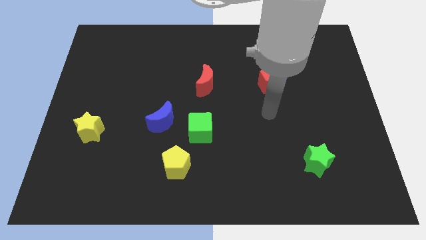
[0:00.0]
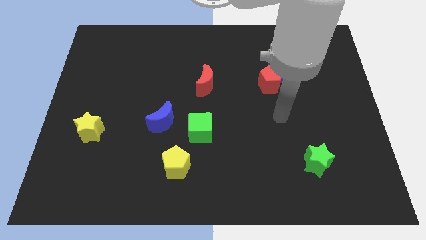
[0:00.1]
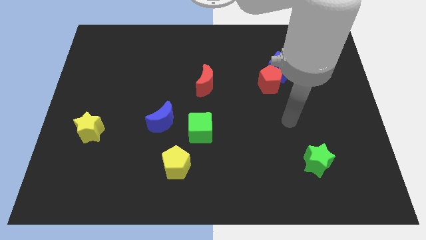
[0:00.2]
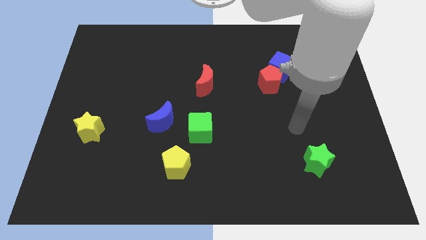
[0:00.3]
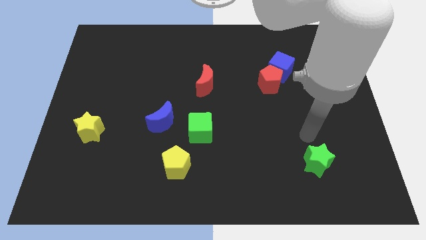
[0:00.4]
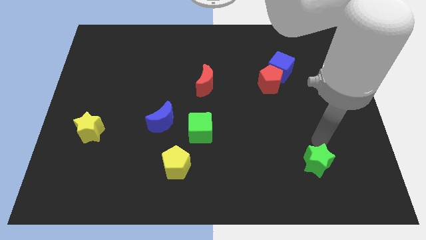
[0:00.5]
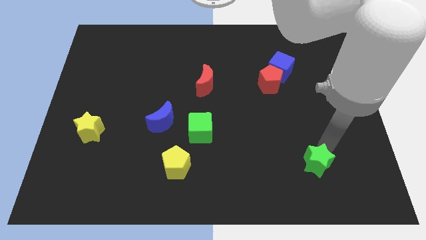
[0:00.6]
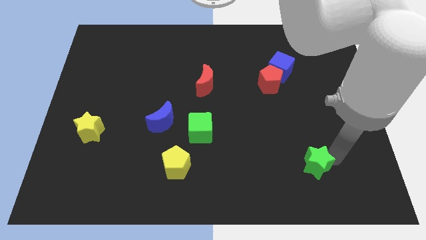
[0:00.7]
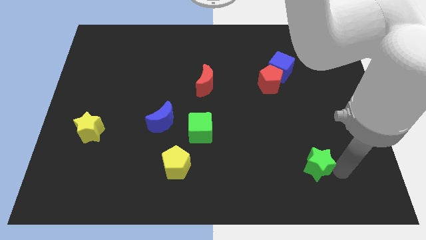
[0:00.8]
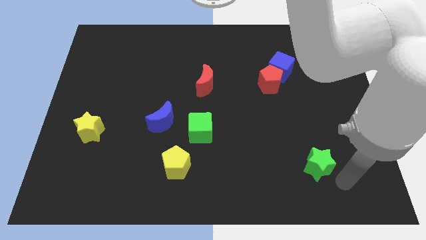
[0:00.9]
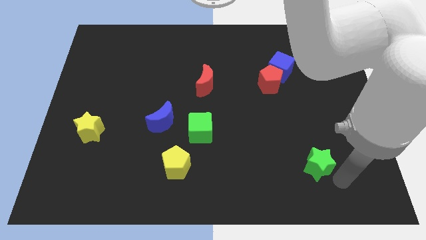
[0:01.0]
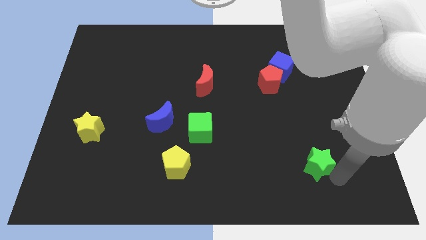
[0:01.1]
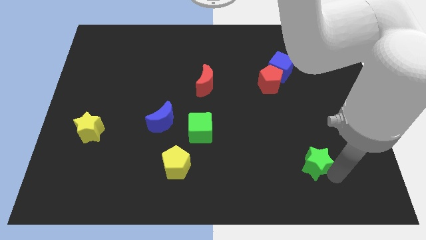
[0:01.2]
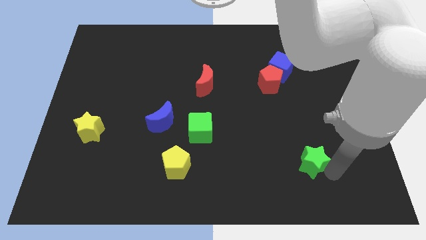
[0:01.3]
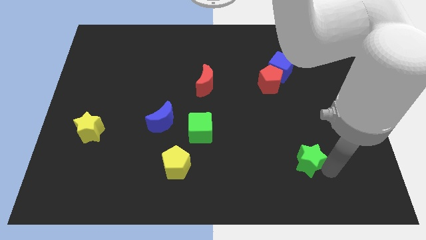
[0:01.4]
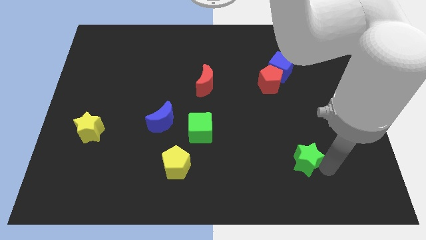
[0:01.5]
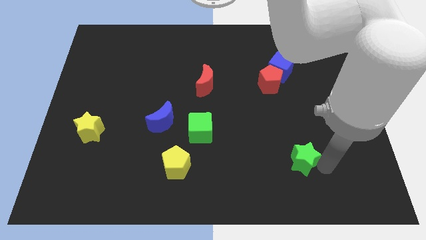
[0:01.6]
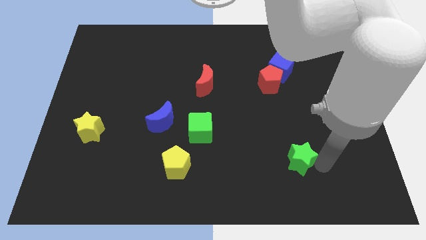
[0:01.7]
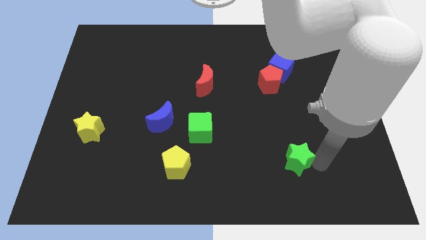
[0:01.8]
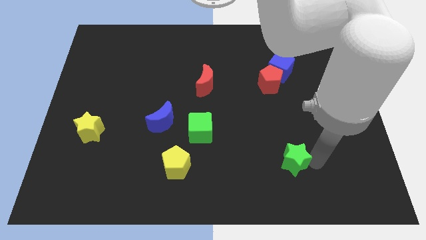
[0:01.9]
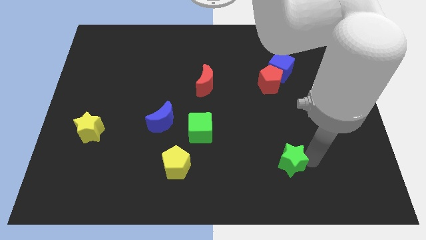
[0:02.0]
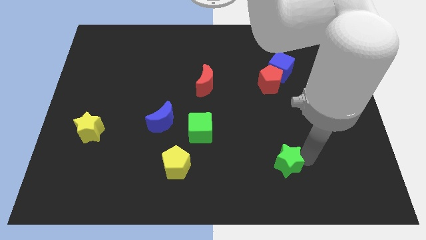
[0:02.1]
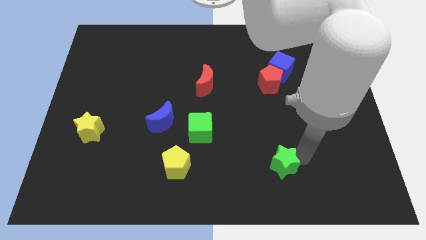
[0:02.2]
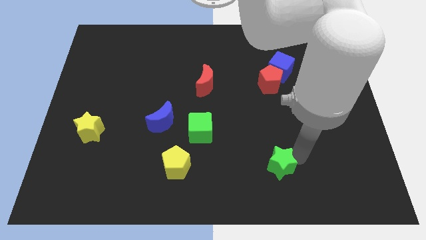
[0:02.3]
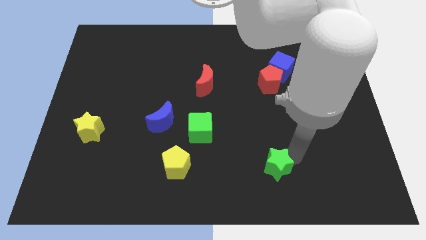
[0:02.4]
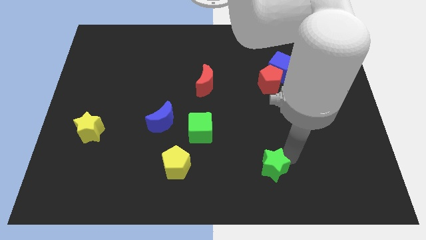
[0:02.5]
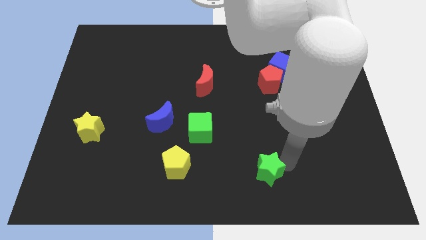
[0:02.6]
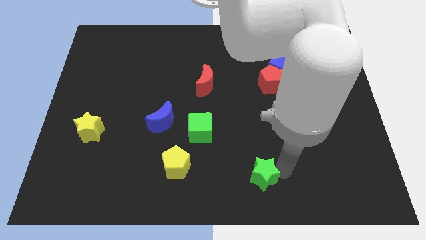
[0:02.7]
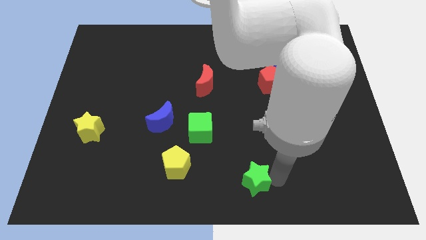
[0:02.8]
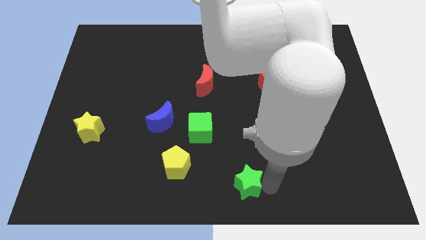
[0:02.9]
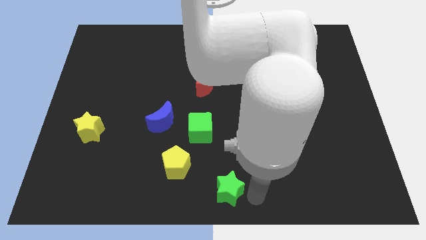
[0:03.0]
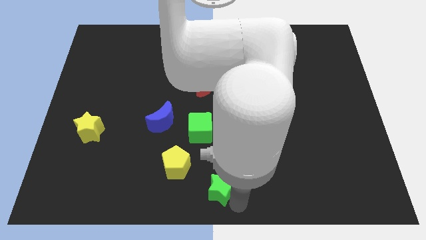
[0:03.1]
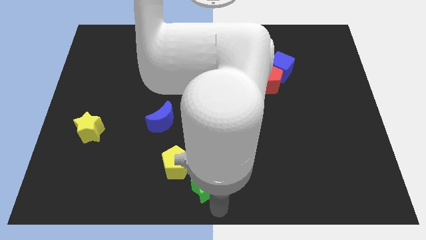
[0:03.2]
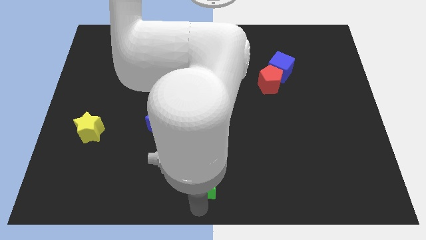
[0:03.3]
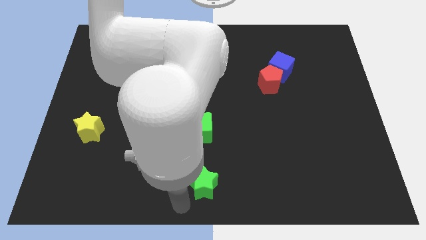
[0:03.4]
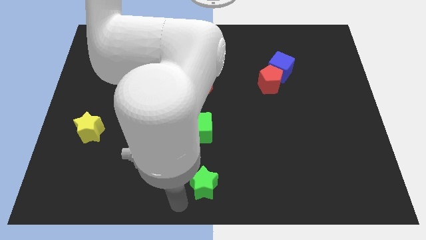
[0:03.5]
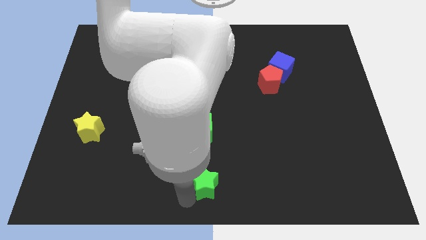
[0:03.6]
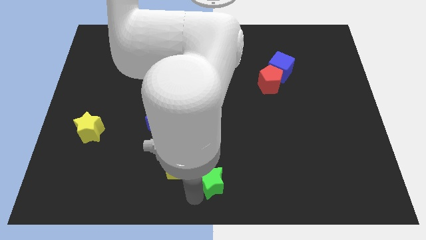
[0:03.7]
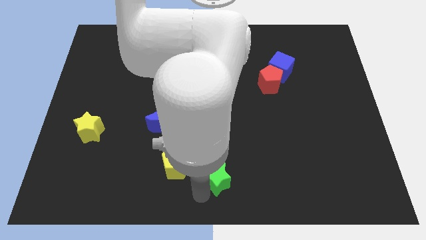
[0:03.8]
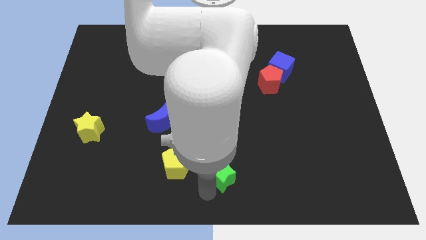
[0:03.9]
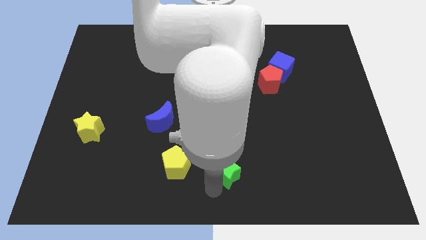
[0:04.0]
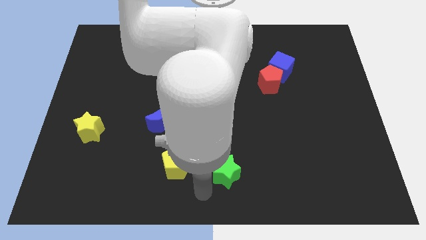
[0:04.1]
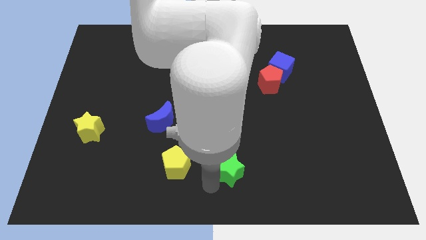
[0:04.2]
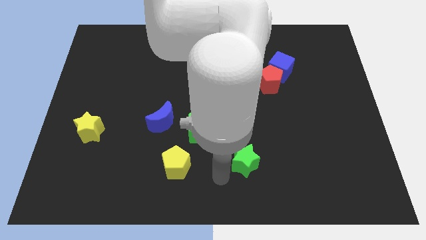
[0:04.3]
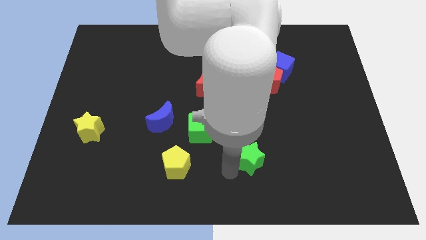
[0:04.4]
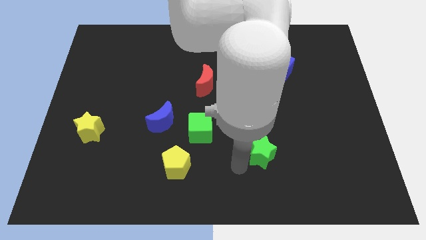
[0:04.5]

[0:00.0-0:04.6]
push the green star up and to the left diagonally a little

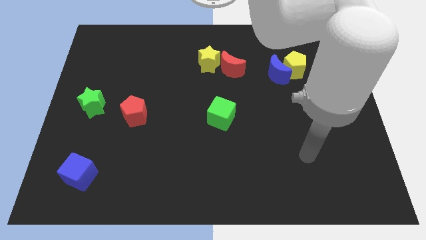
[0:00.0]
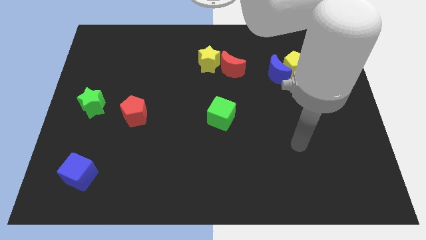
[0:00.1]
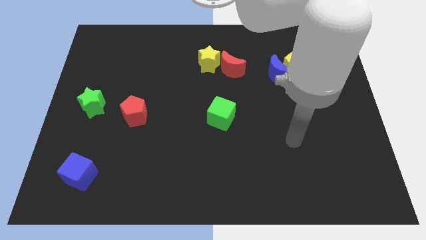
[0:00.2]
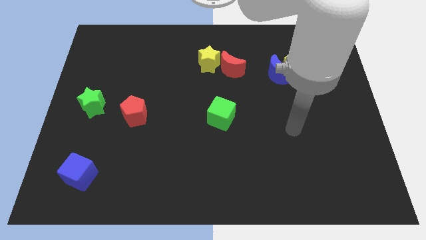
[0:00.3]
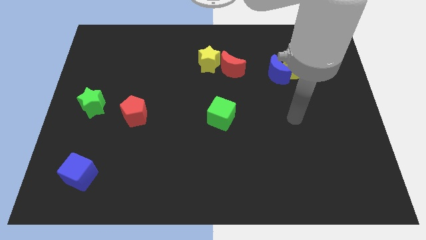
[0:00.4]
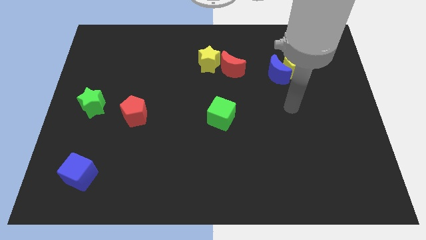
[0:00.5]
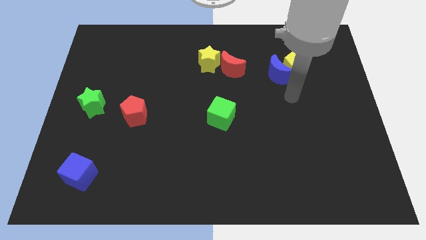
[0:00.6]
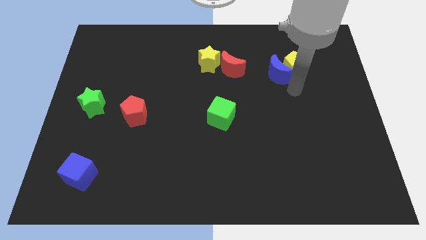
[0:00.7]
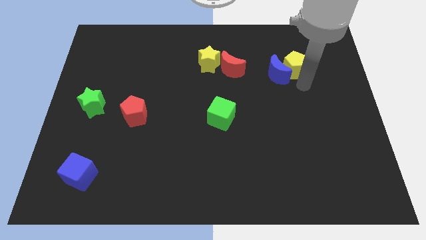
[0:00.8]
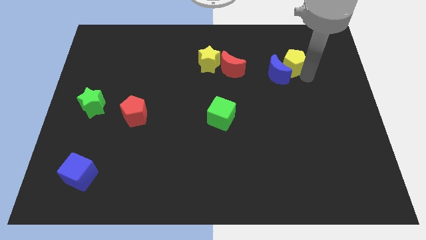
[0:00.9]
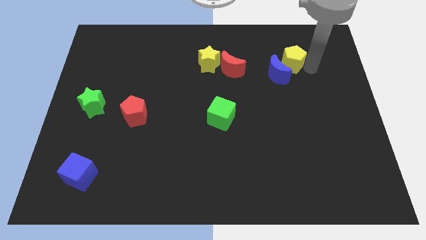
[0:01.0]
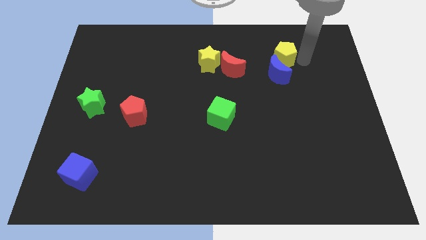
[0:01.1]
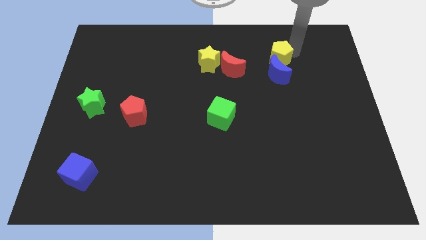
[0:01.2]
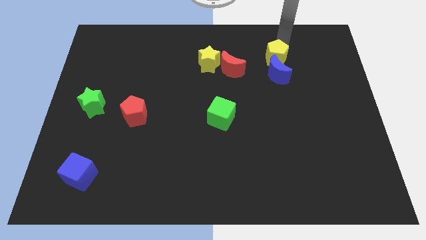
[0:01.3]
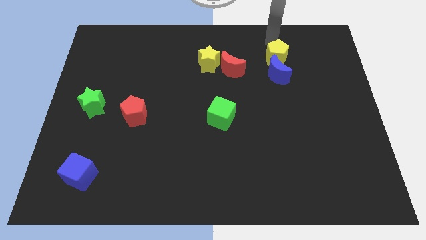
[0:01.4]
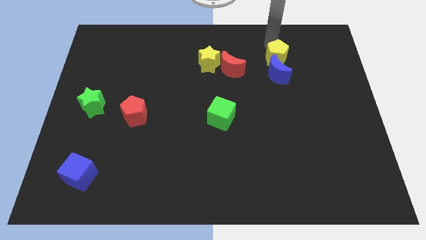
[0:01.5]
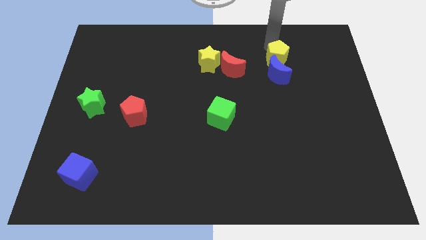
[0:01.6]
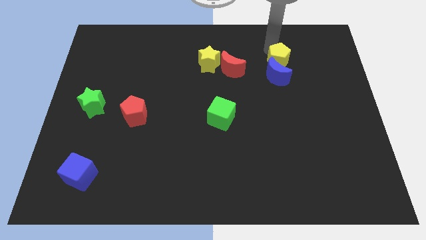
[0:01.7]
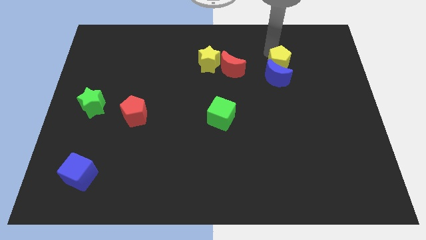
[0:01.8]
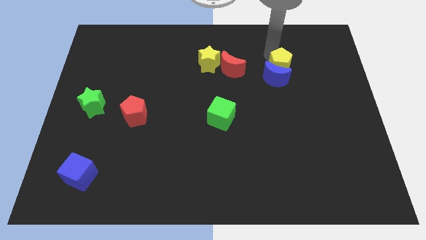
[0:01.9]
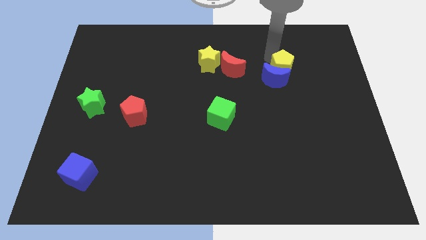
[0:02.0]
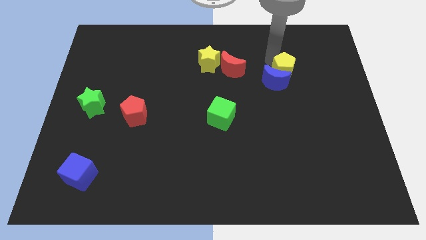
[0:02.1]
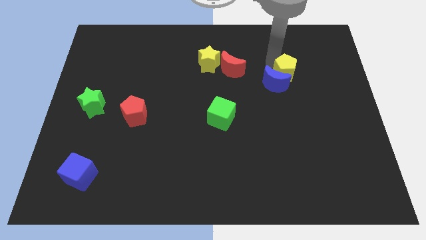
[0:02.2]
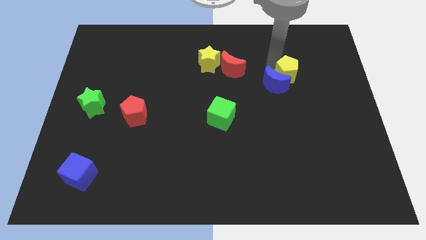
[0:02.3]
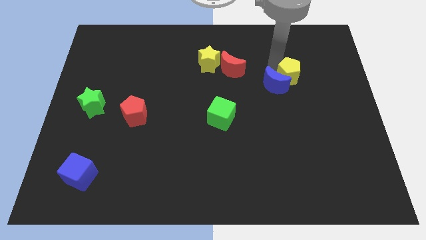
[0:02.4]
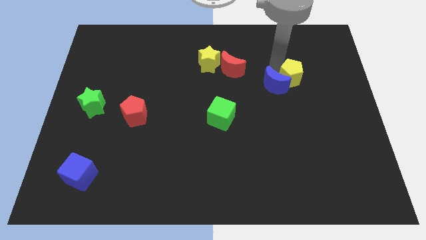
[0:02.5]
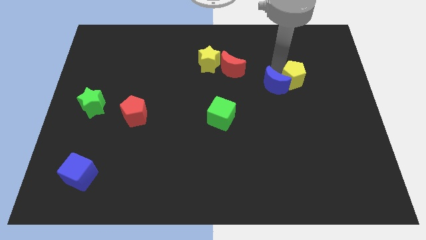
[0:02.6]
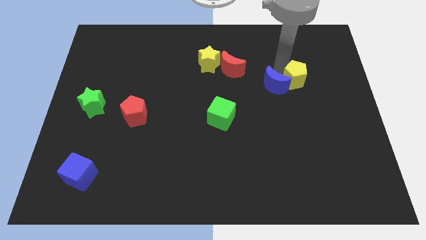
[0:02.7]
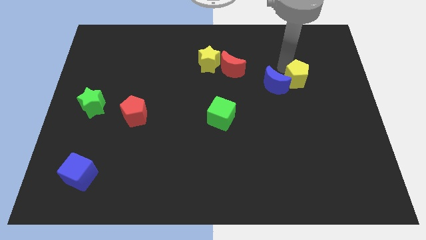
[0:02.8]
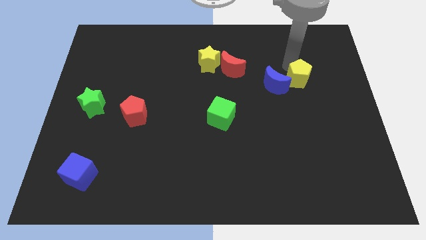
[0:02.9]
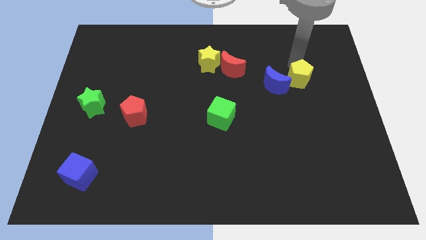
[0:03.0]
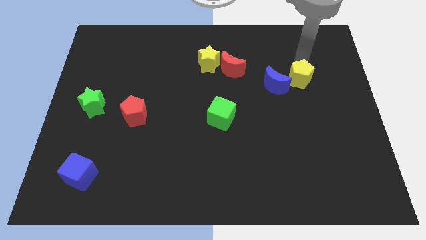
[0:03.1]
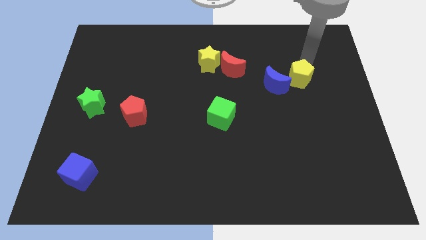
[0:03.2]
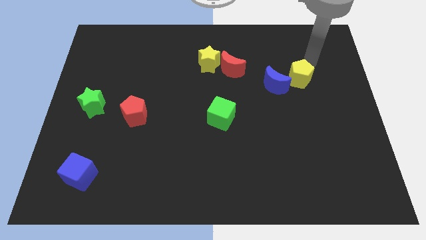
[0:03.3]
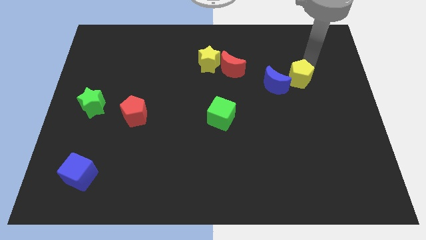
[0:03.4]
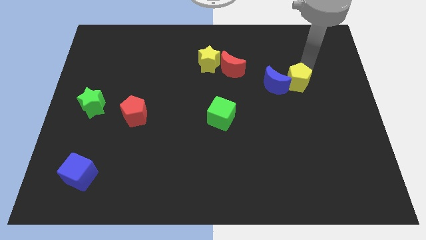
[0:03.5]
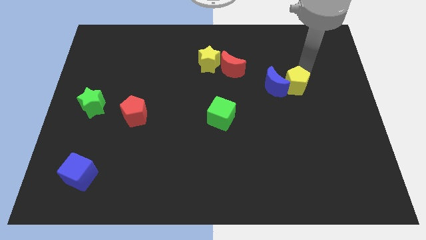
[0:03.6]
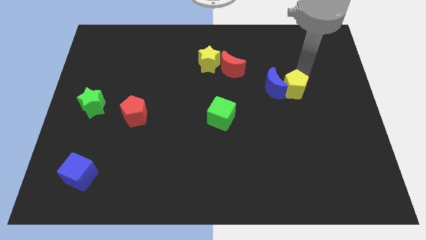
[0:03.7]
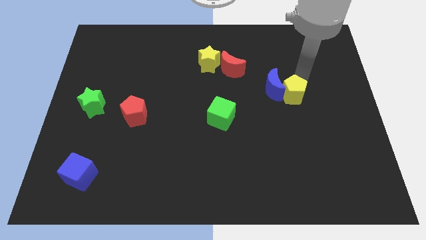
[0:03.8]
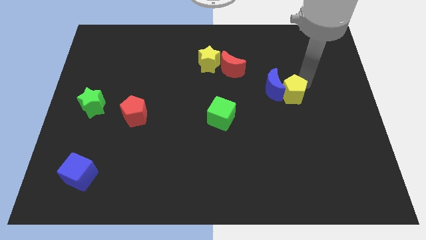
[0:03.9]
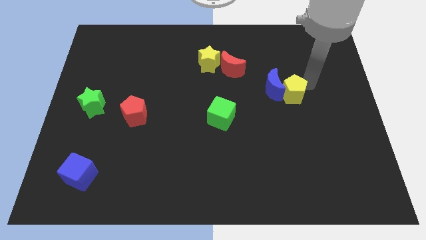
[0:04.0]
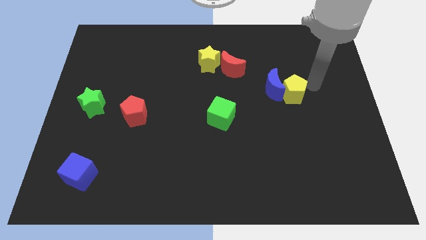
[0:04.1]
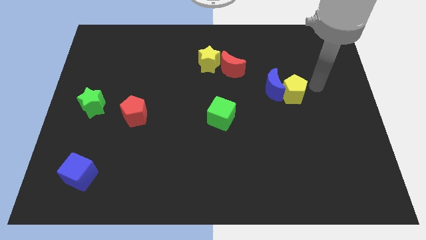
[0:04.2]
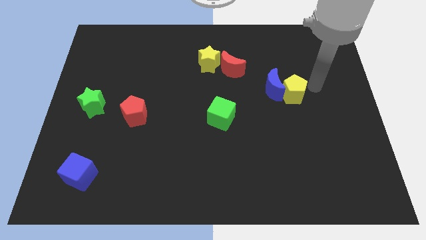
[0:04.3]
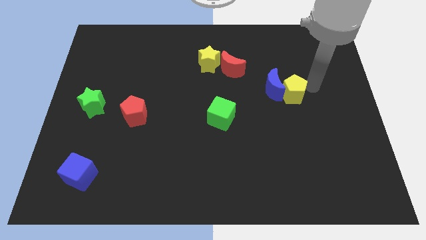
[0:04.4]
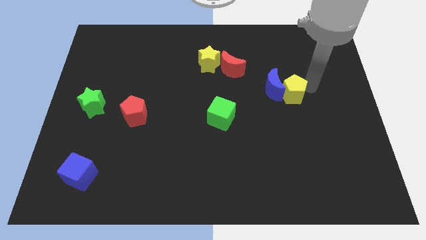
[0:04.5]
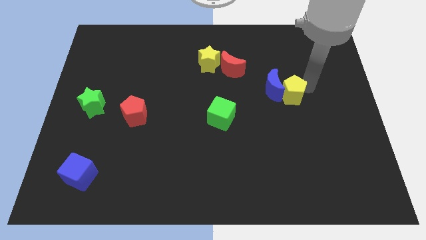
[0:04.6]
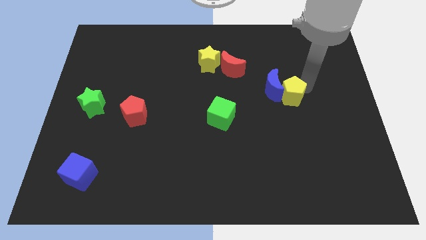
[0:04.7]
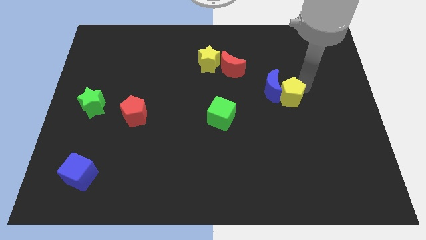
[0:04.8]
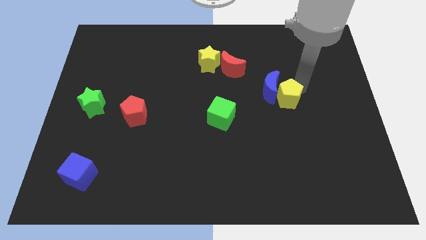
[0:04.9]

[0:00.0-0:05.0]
move the yellow pentagon a bit down and left
